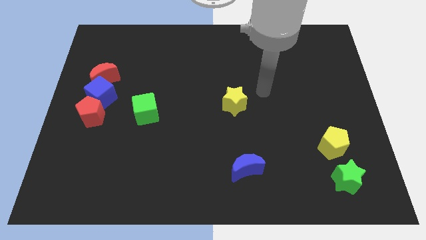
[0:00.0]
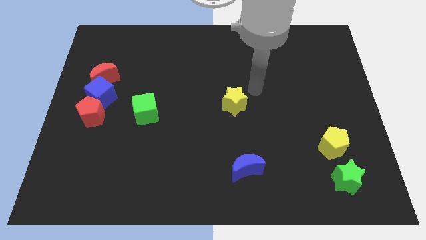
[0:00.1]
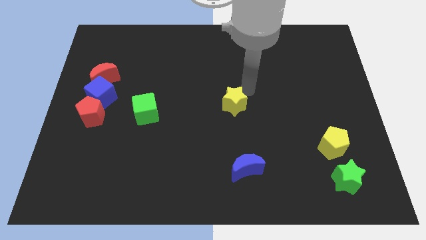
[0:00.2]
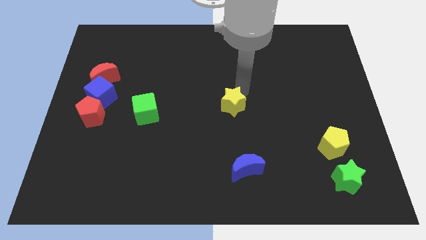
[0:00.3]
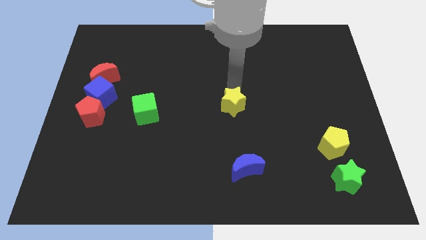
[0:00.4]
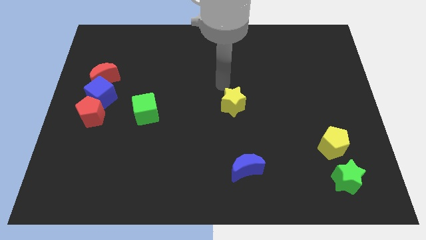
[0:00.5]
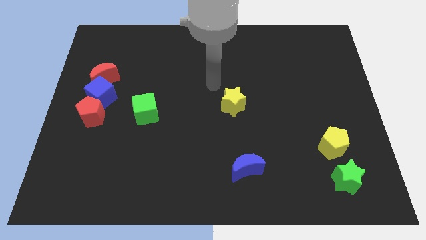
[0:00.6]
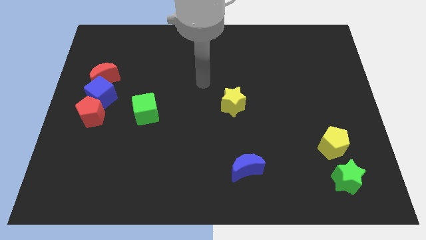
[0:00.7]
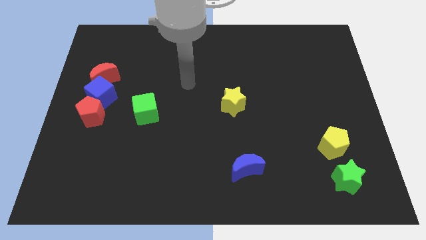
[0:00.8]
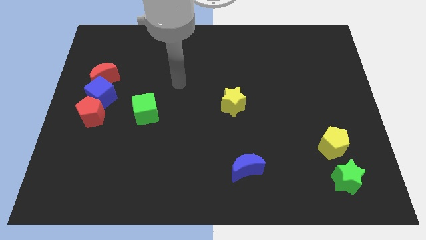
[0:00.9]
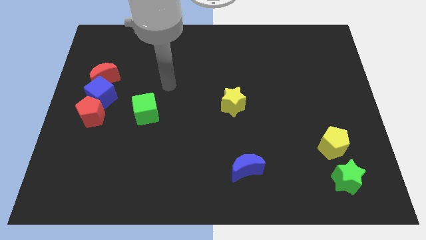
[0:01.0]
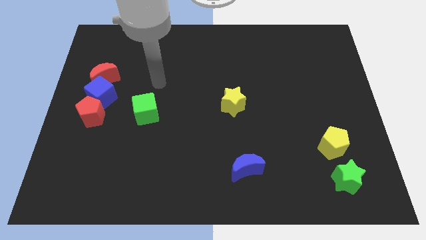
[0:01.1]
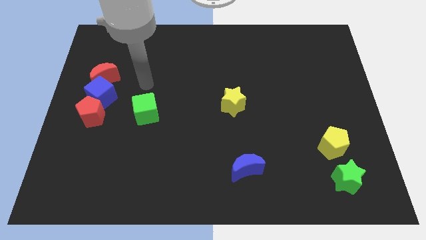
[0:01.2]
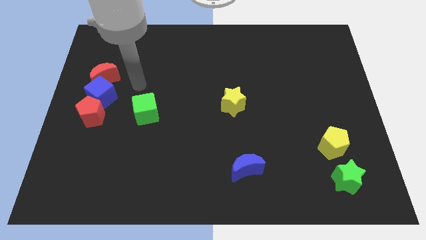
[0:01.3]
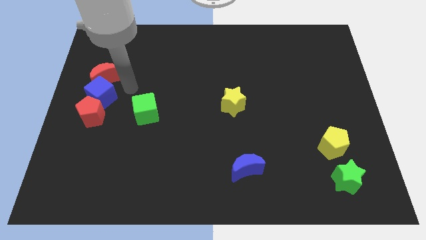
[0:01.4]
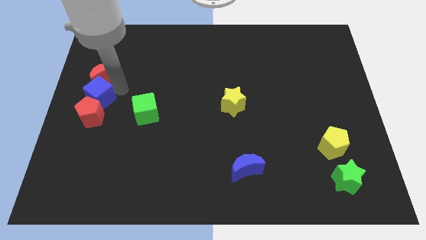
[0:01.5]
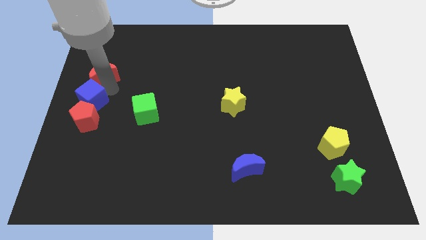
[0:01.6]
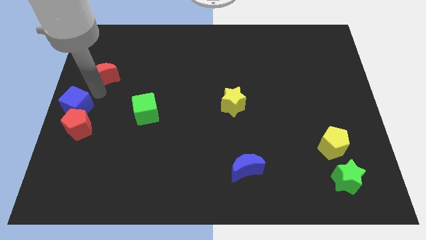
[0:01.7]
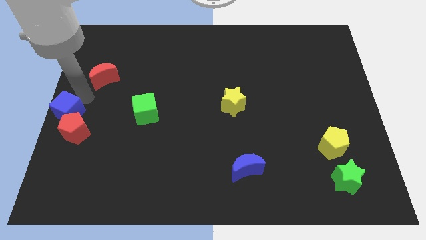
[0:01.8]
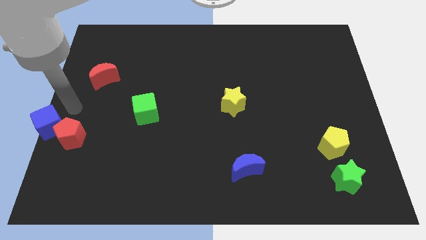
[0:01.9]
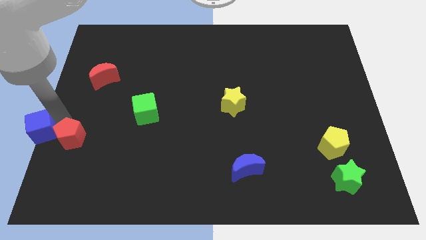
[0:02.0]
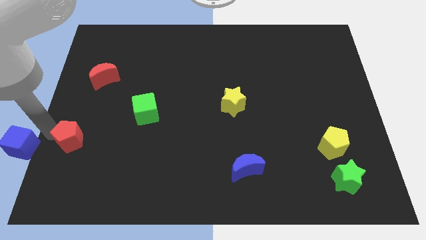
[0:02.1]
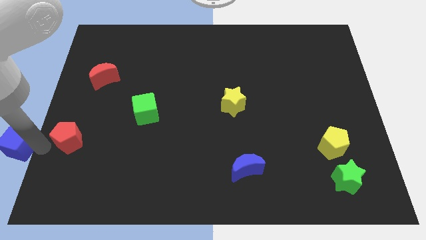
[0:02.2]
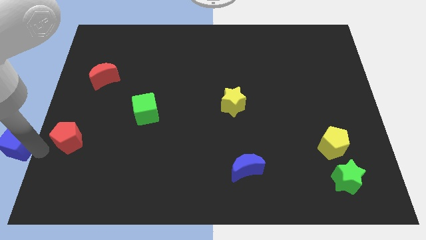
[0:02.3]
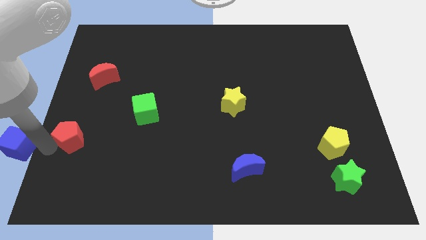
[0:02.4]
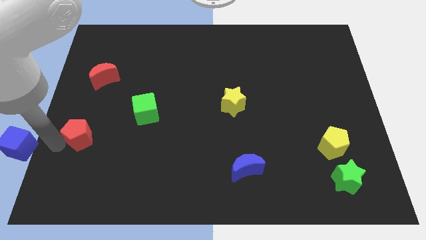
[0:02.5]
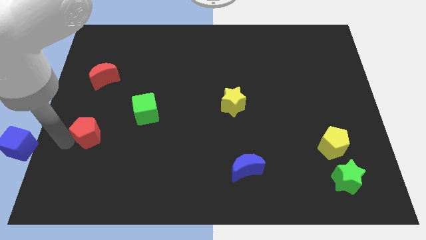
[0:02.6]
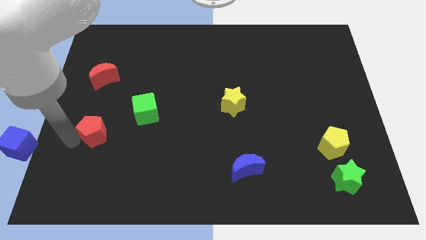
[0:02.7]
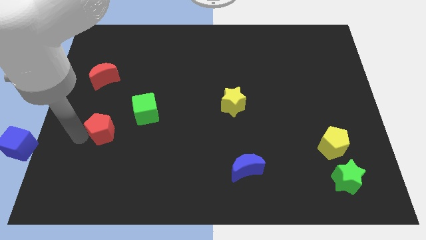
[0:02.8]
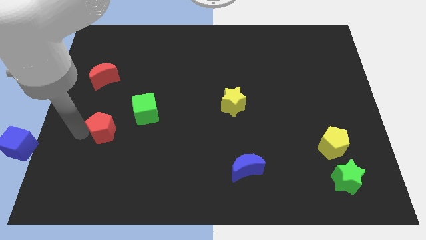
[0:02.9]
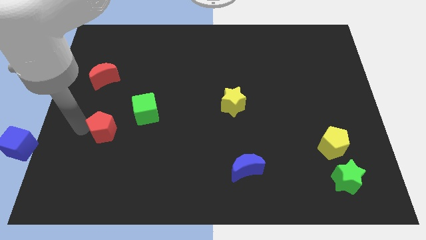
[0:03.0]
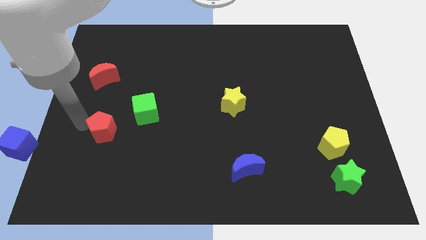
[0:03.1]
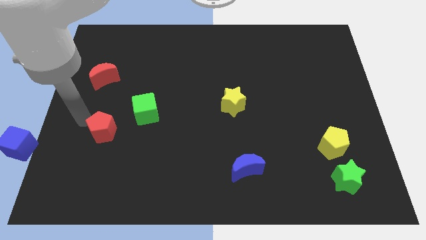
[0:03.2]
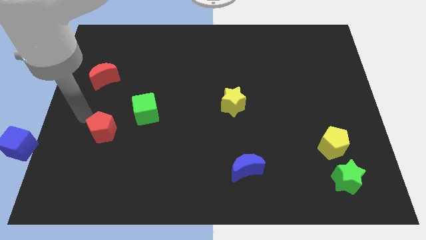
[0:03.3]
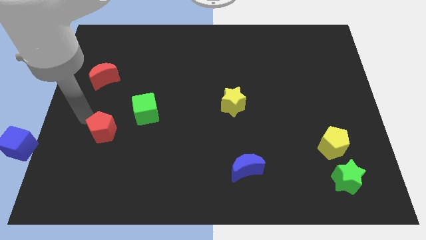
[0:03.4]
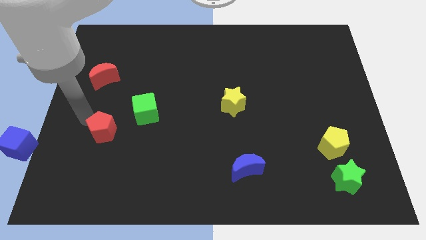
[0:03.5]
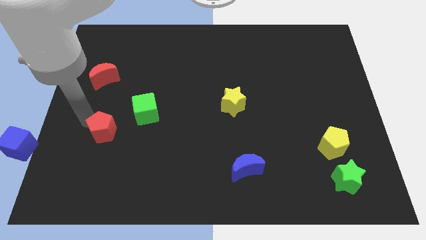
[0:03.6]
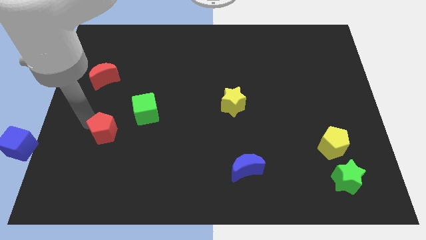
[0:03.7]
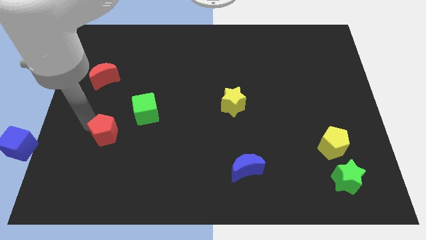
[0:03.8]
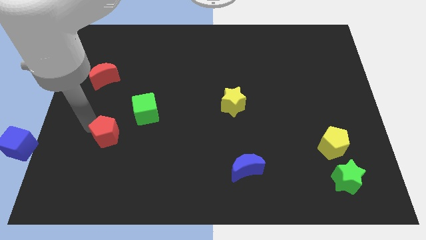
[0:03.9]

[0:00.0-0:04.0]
move the red pentagon somewhat diagonally down and right

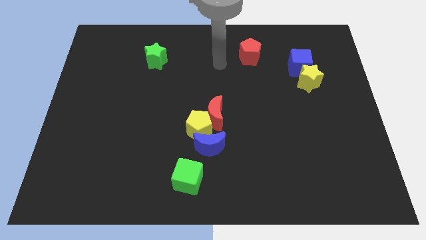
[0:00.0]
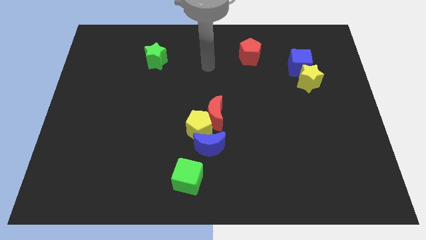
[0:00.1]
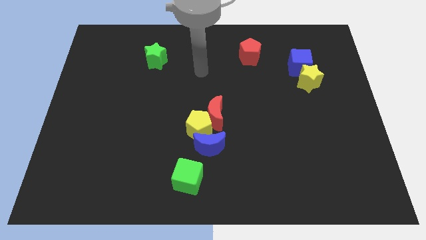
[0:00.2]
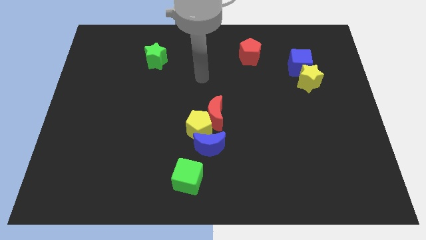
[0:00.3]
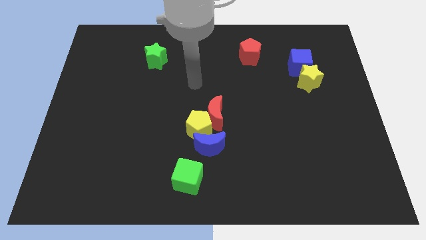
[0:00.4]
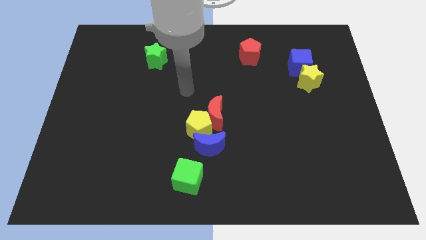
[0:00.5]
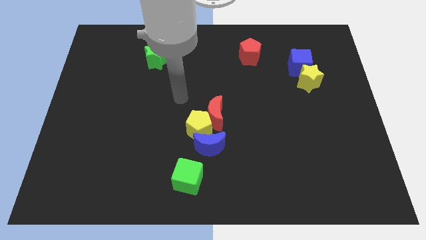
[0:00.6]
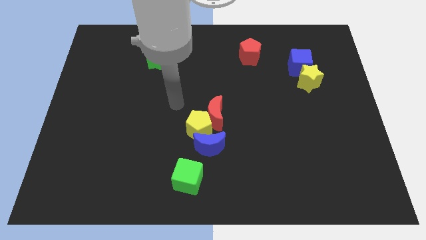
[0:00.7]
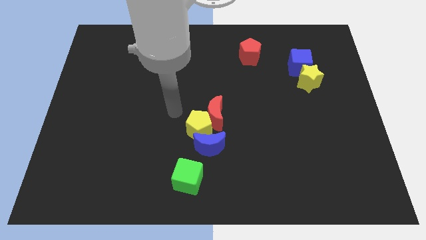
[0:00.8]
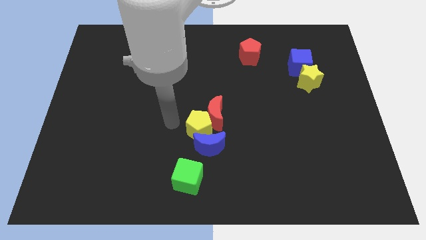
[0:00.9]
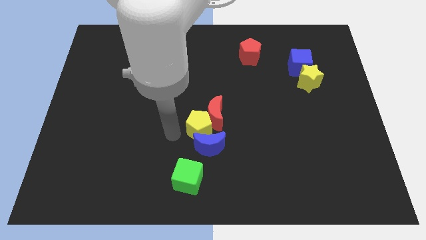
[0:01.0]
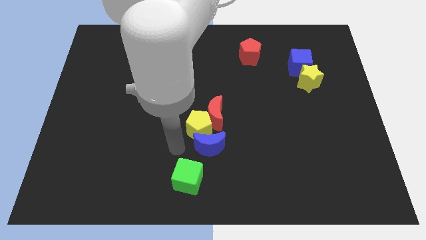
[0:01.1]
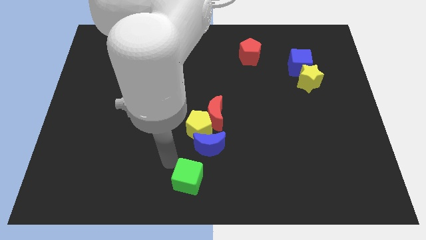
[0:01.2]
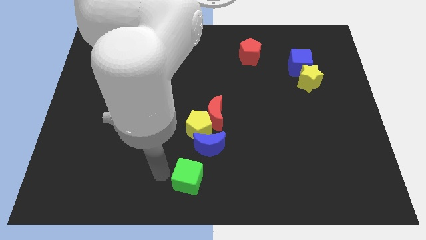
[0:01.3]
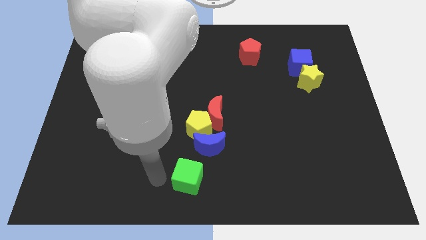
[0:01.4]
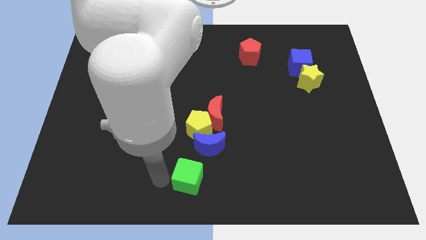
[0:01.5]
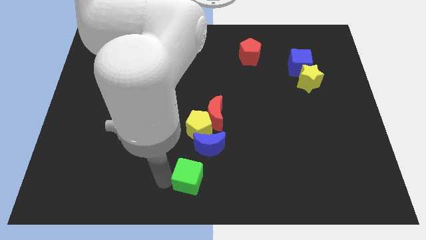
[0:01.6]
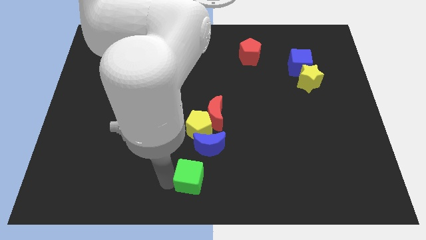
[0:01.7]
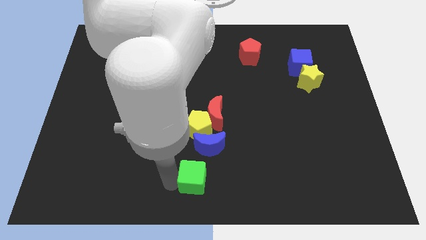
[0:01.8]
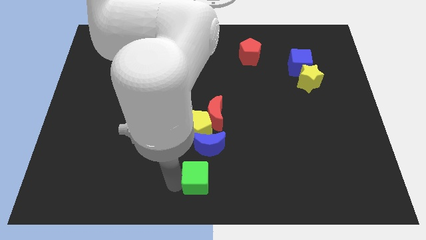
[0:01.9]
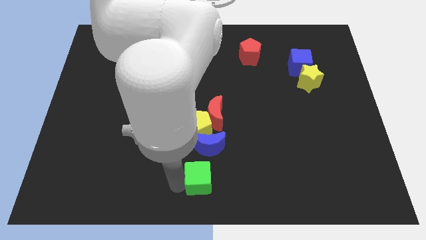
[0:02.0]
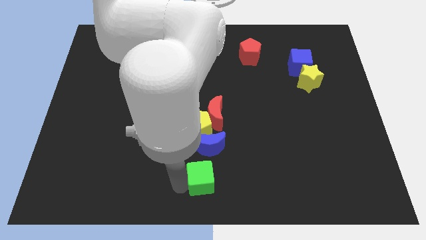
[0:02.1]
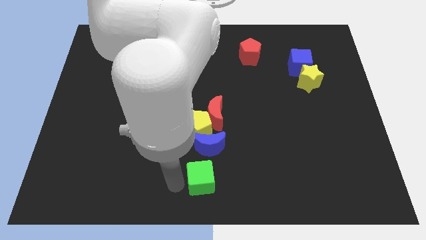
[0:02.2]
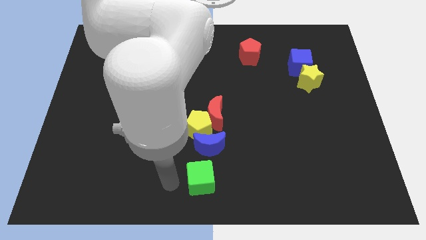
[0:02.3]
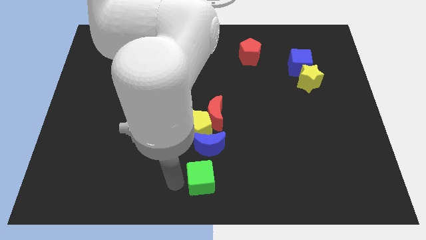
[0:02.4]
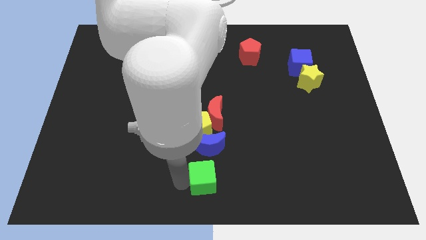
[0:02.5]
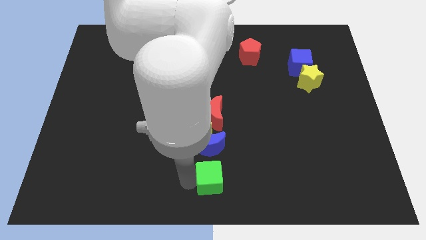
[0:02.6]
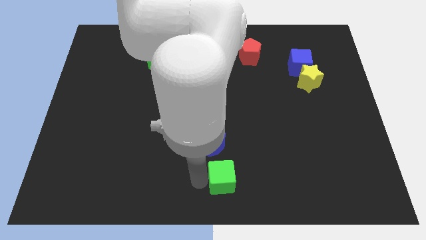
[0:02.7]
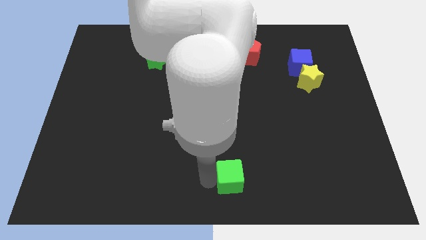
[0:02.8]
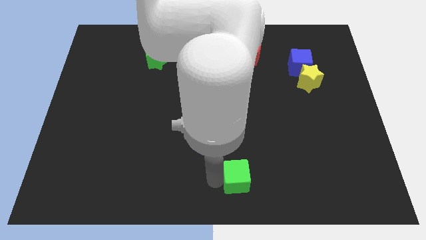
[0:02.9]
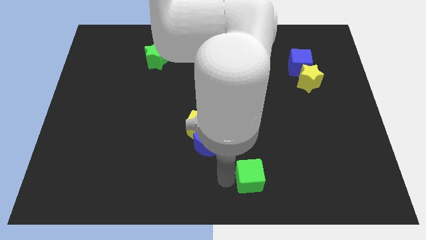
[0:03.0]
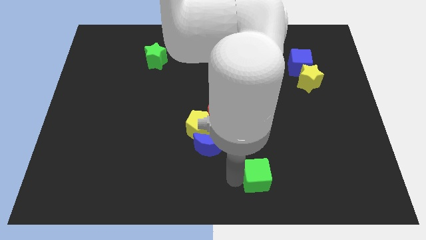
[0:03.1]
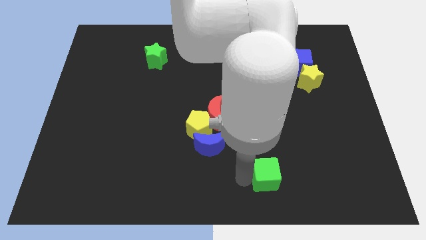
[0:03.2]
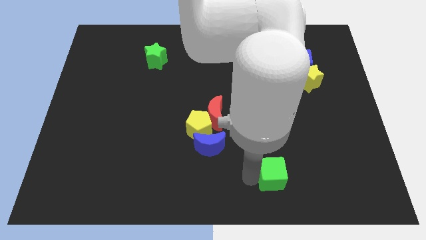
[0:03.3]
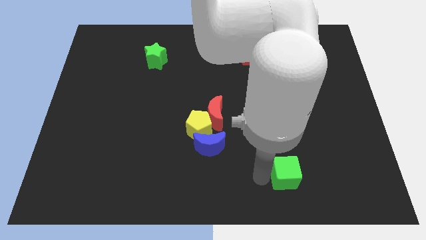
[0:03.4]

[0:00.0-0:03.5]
move the green cube to the right

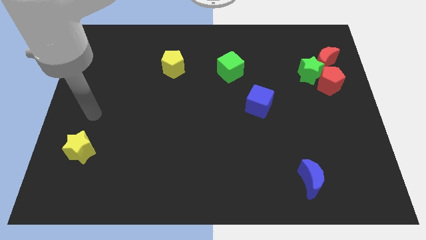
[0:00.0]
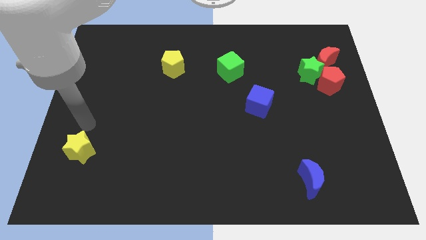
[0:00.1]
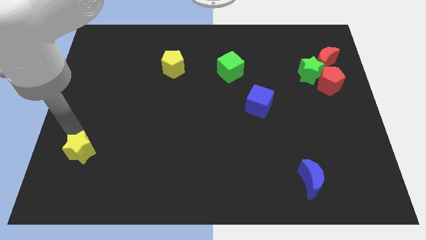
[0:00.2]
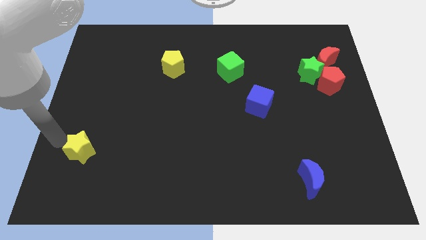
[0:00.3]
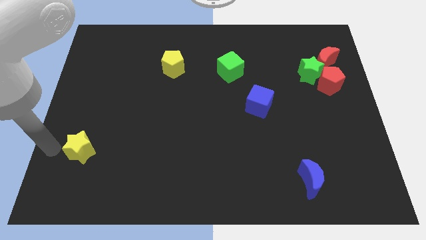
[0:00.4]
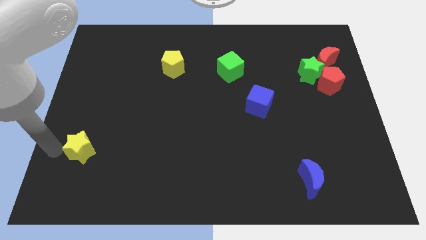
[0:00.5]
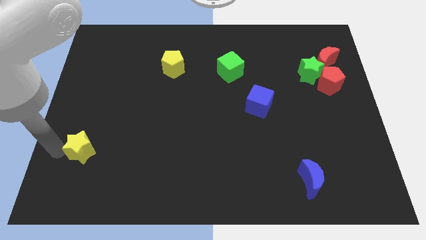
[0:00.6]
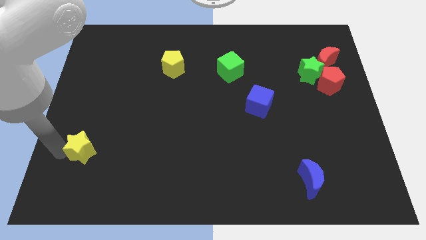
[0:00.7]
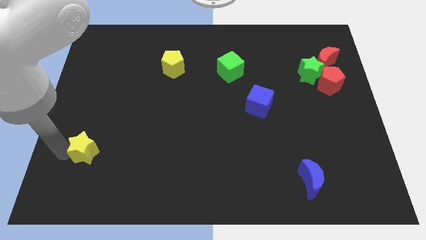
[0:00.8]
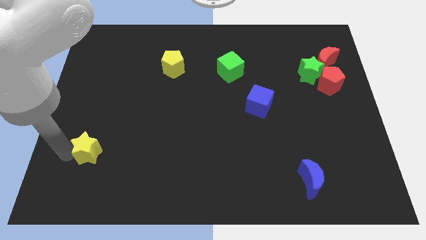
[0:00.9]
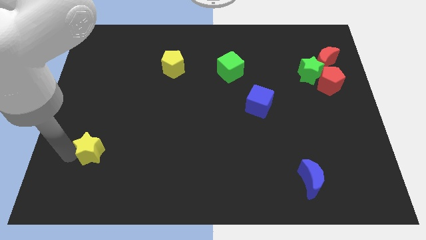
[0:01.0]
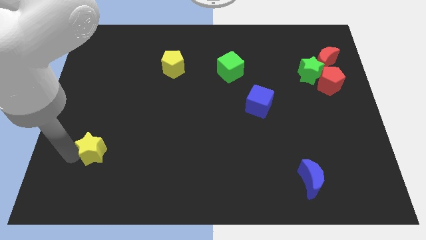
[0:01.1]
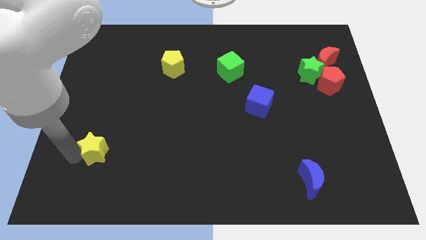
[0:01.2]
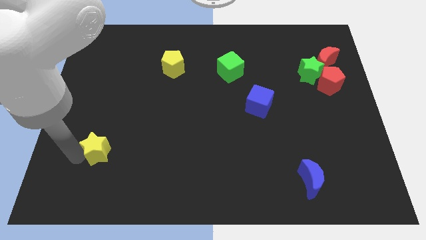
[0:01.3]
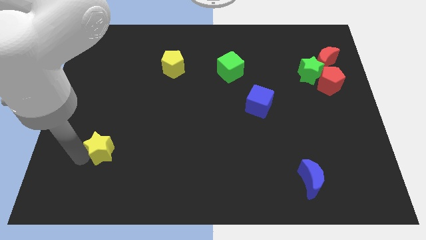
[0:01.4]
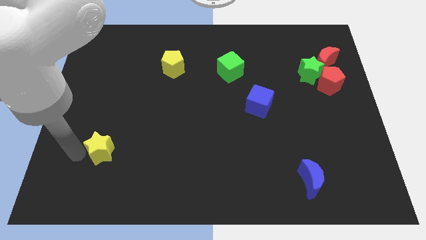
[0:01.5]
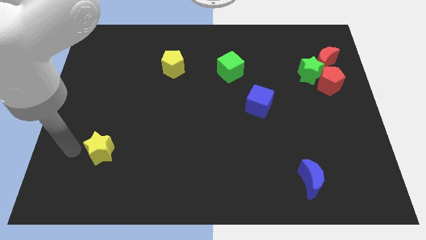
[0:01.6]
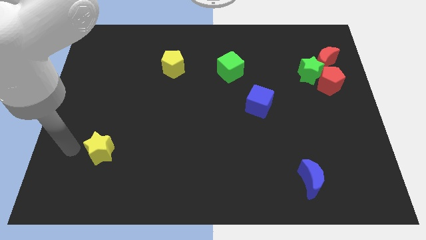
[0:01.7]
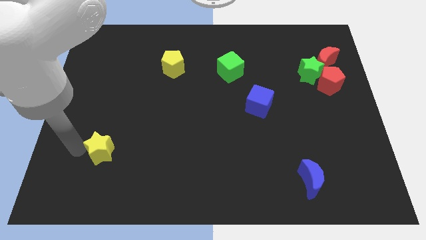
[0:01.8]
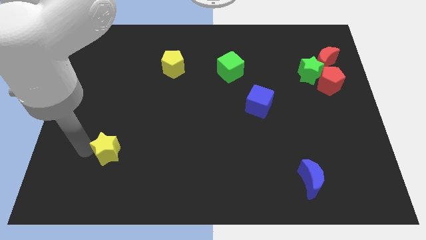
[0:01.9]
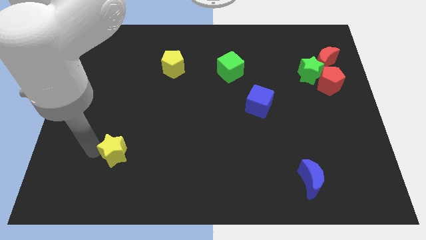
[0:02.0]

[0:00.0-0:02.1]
slightly slide the yellow star to the right
